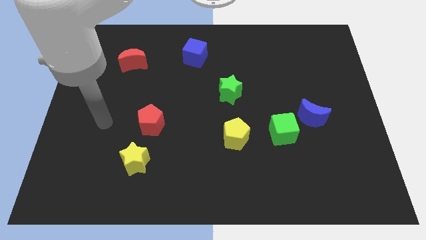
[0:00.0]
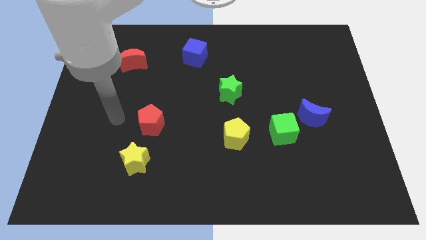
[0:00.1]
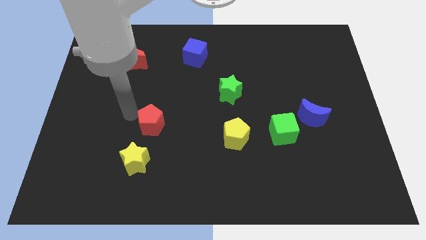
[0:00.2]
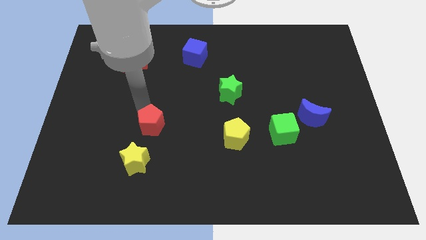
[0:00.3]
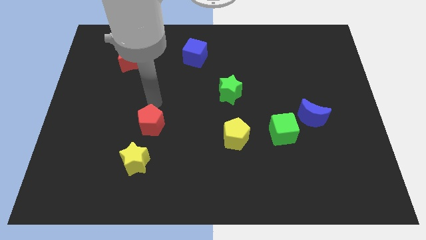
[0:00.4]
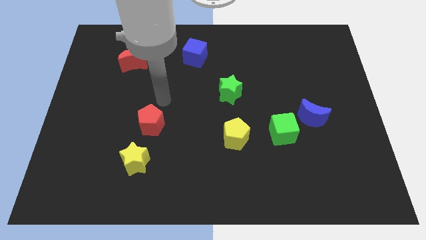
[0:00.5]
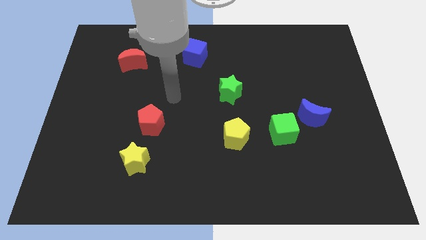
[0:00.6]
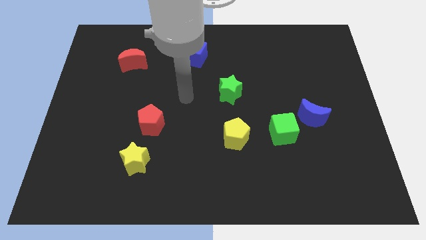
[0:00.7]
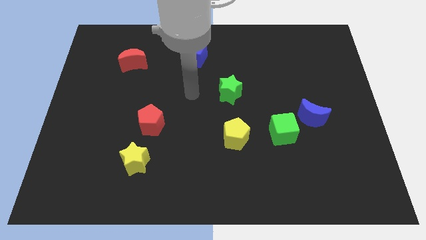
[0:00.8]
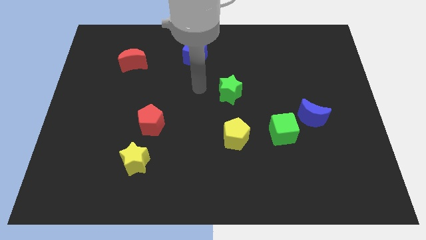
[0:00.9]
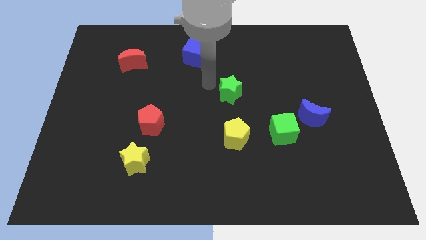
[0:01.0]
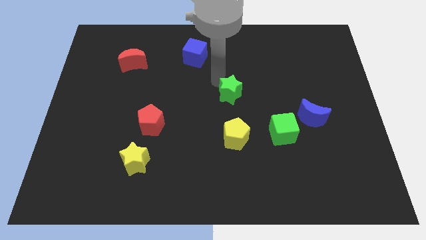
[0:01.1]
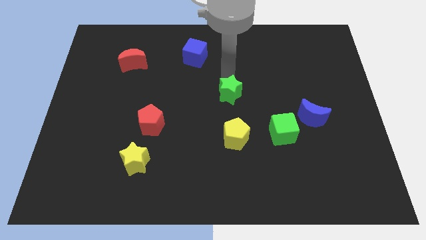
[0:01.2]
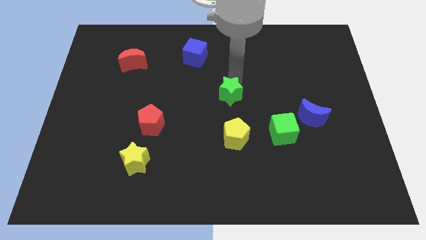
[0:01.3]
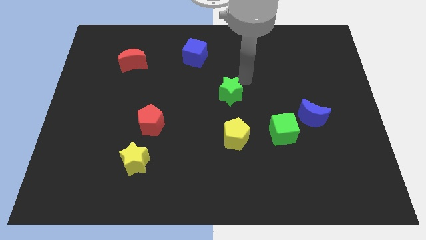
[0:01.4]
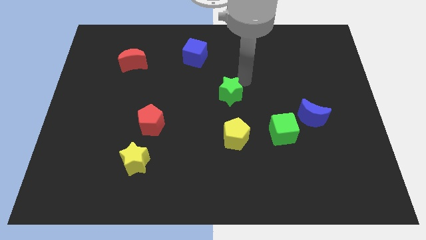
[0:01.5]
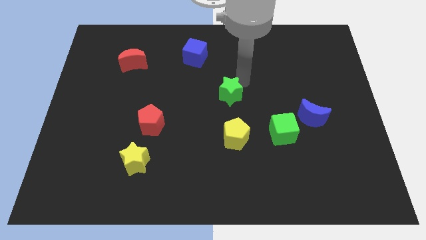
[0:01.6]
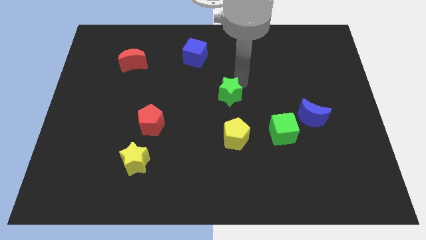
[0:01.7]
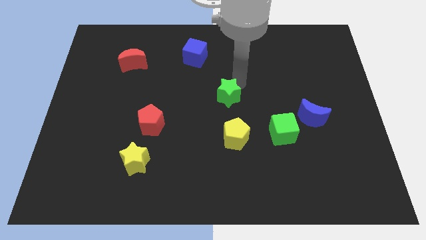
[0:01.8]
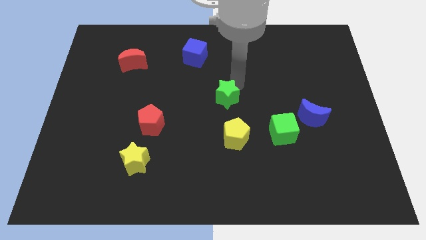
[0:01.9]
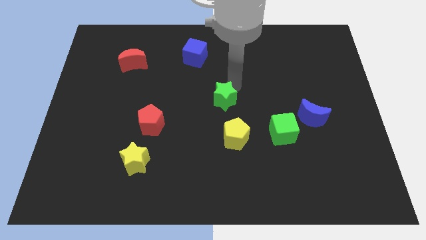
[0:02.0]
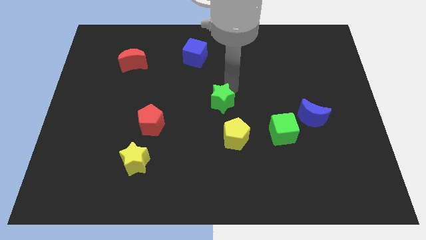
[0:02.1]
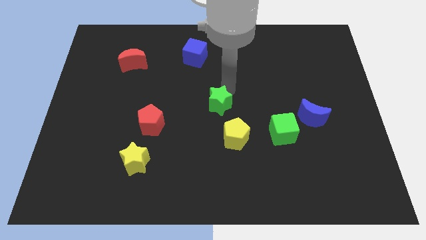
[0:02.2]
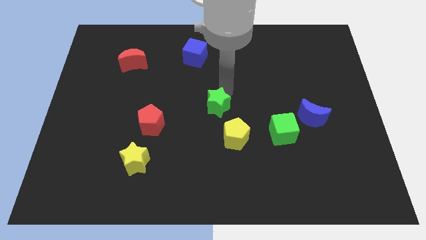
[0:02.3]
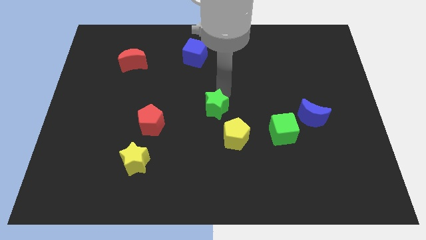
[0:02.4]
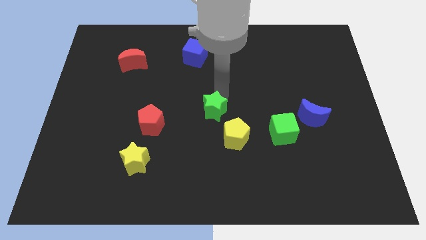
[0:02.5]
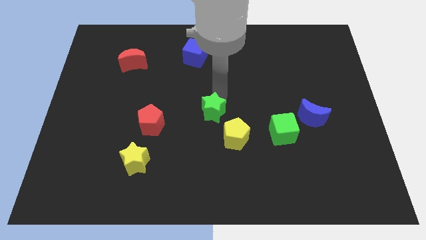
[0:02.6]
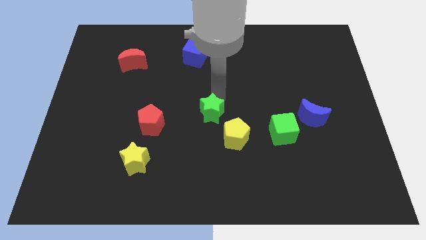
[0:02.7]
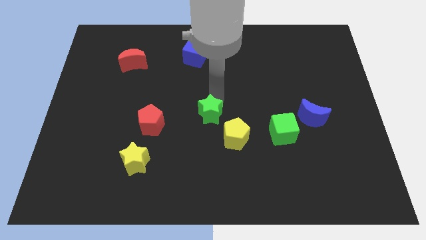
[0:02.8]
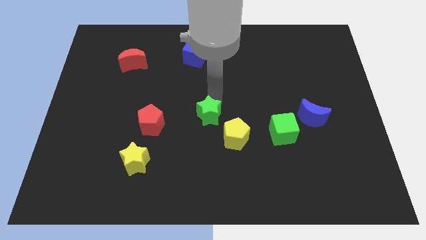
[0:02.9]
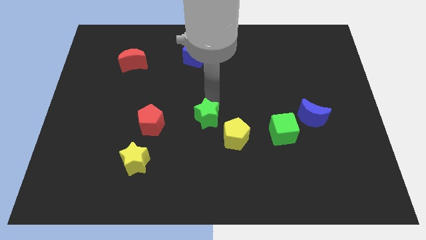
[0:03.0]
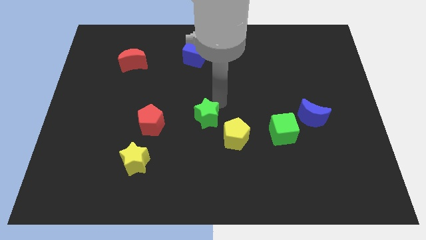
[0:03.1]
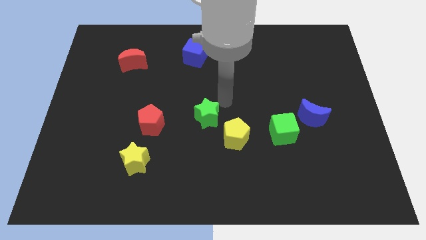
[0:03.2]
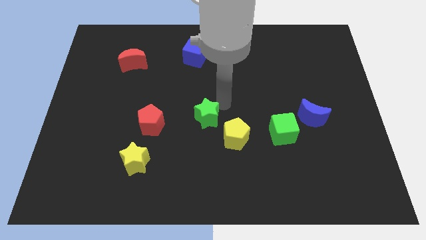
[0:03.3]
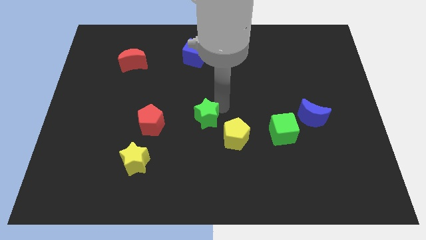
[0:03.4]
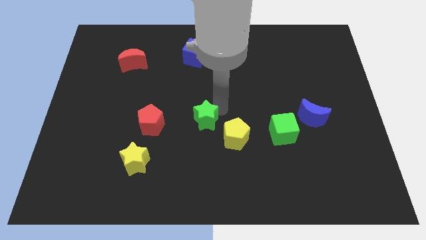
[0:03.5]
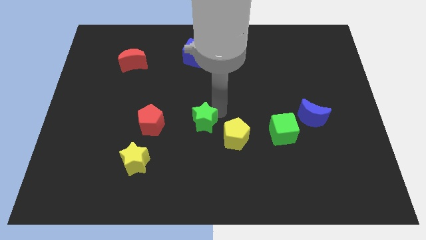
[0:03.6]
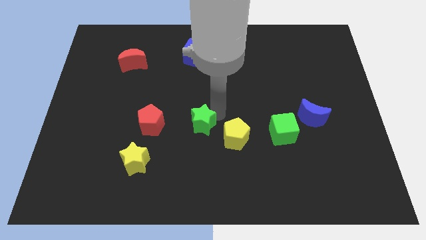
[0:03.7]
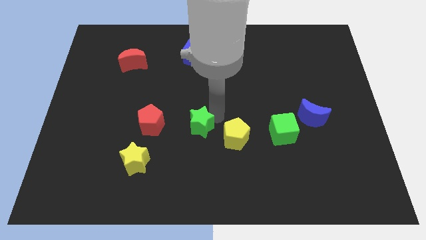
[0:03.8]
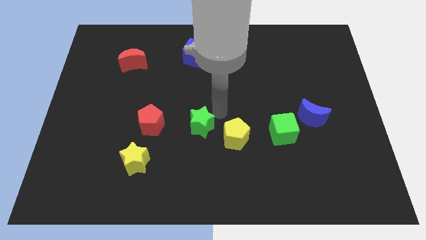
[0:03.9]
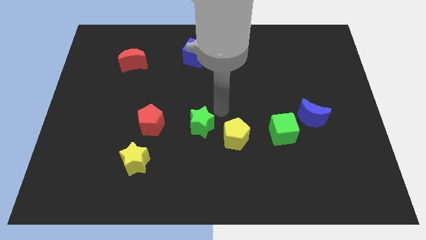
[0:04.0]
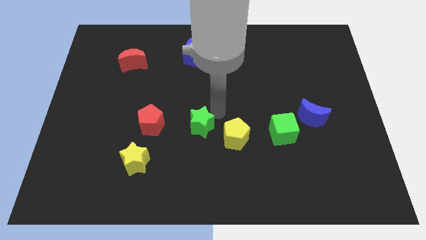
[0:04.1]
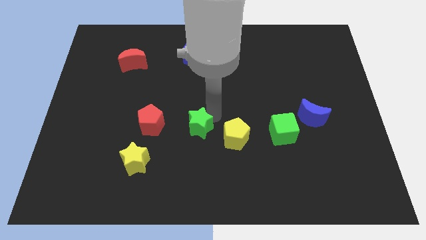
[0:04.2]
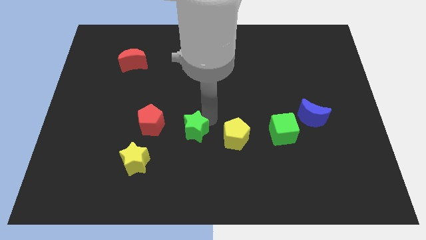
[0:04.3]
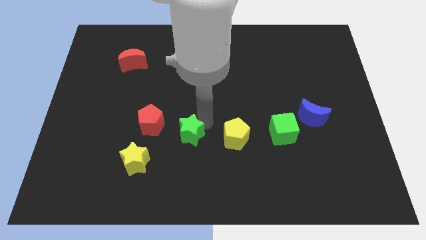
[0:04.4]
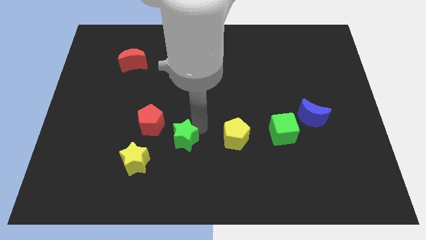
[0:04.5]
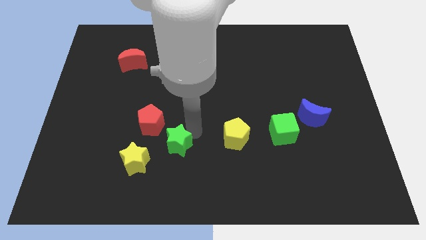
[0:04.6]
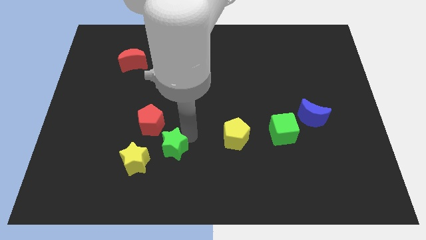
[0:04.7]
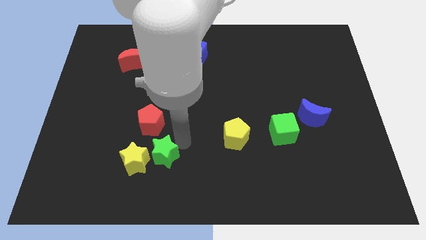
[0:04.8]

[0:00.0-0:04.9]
slide the green star next to the yellow star

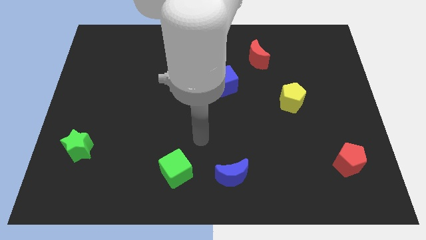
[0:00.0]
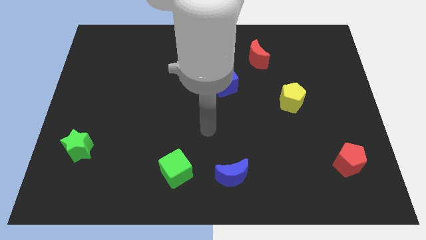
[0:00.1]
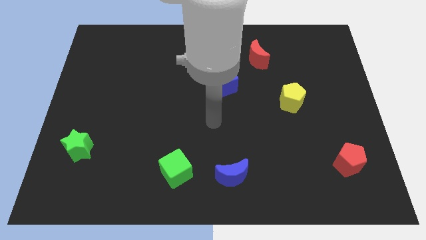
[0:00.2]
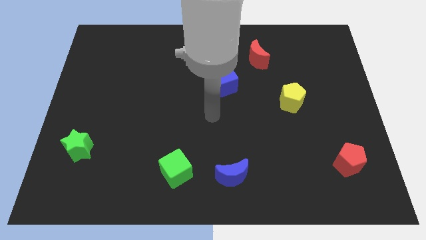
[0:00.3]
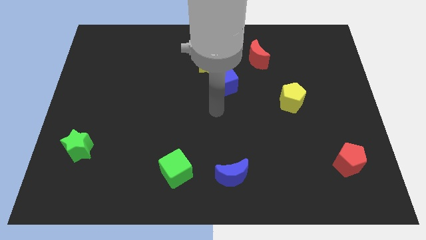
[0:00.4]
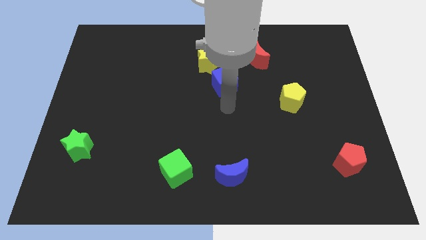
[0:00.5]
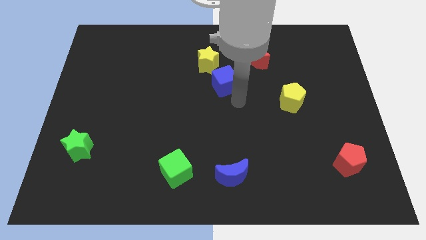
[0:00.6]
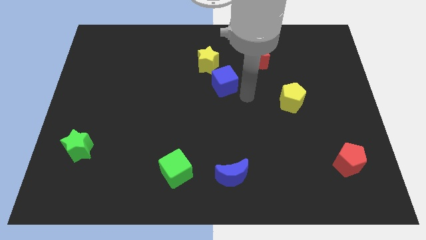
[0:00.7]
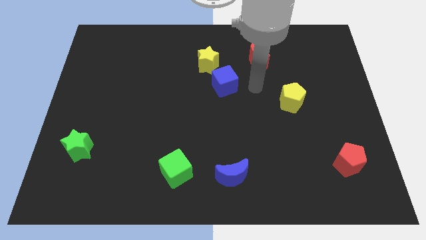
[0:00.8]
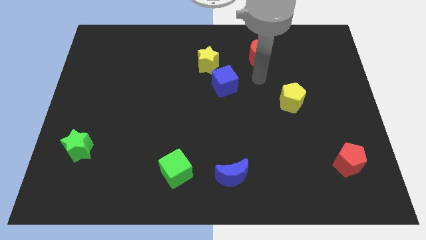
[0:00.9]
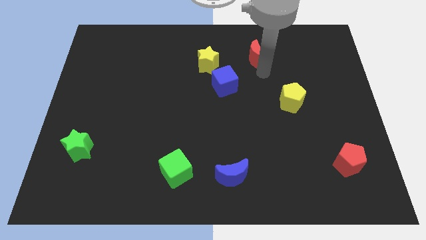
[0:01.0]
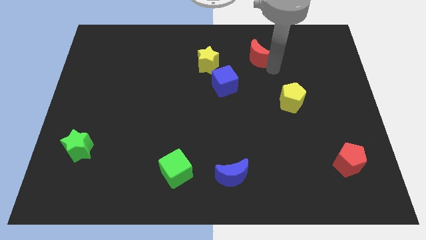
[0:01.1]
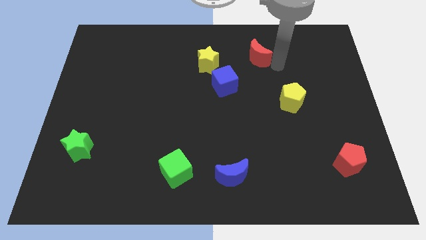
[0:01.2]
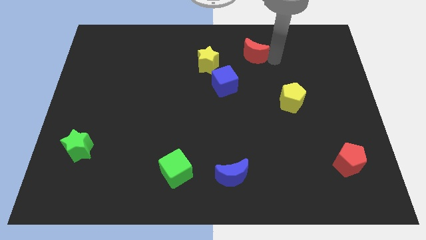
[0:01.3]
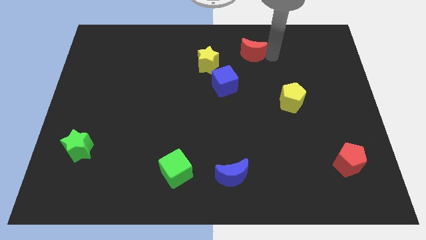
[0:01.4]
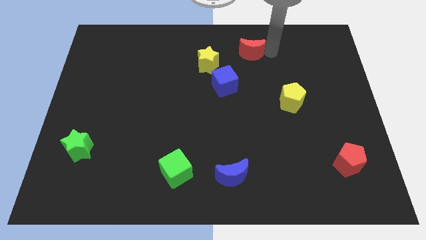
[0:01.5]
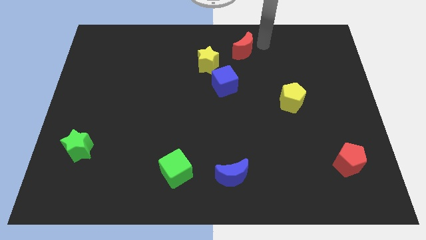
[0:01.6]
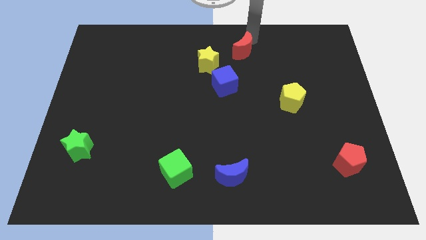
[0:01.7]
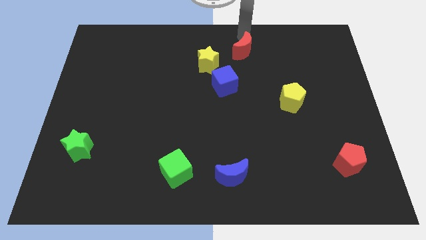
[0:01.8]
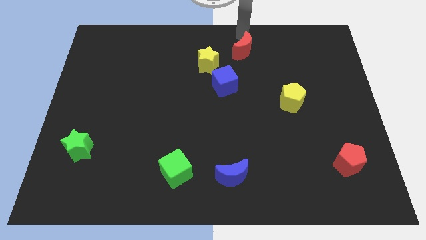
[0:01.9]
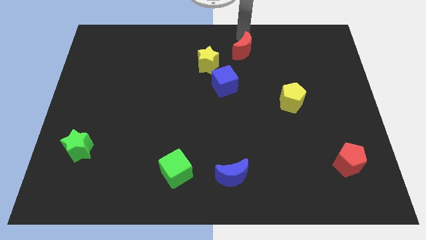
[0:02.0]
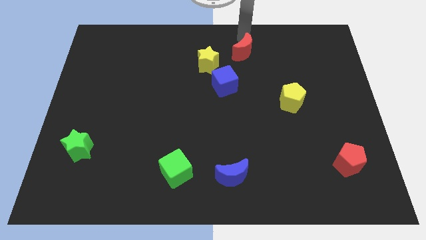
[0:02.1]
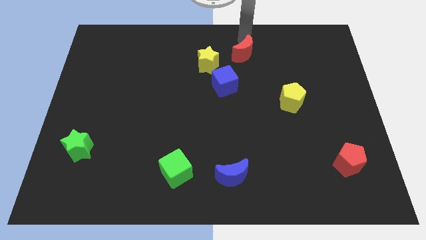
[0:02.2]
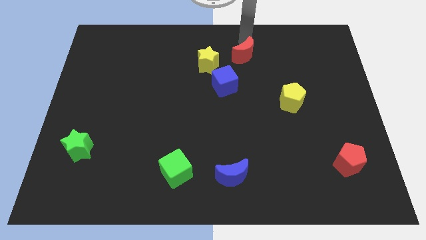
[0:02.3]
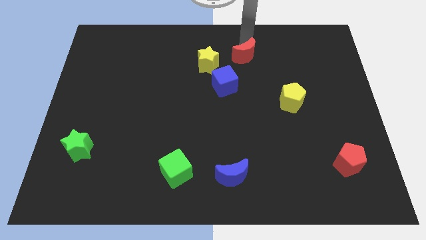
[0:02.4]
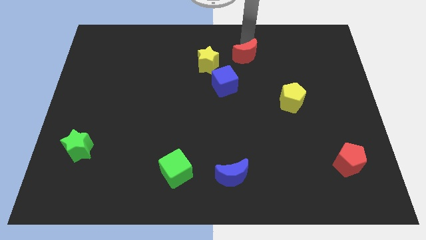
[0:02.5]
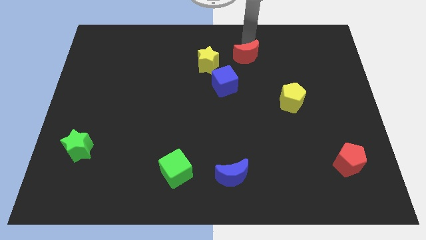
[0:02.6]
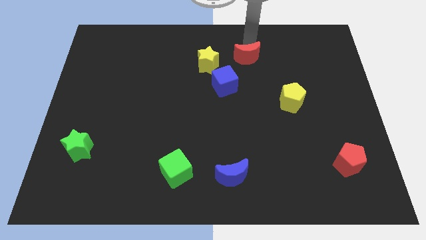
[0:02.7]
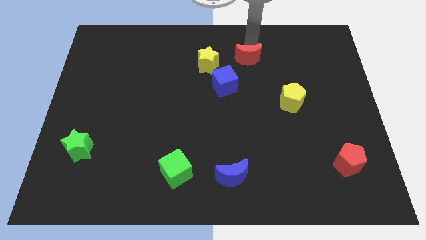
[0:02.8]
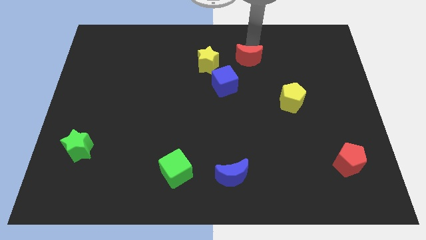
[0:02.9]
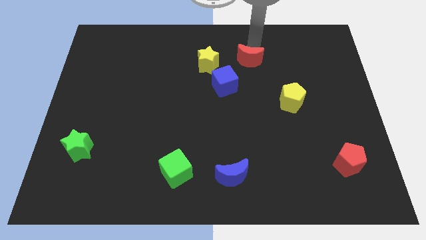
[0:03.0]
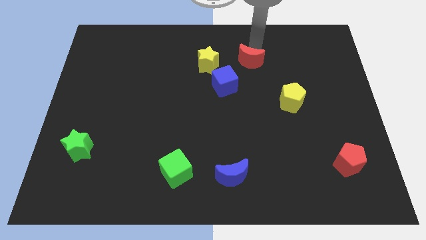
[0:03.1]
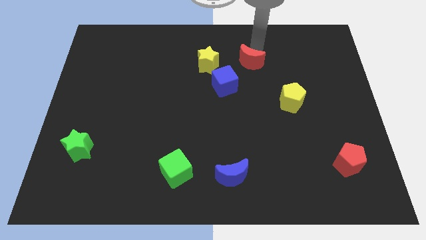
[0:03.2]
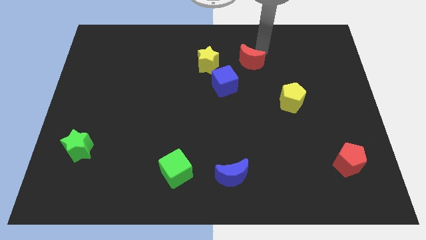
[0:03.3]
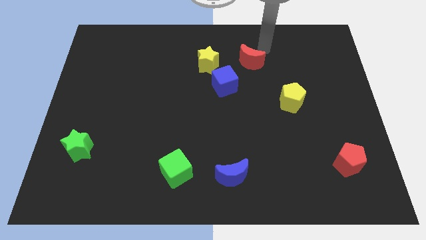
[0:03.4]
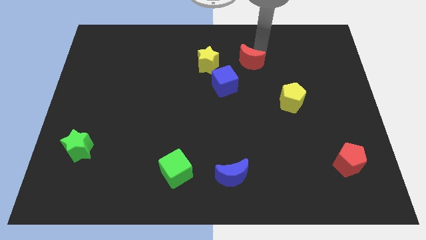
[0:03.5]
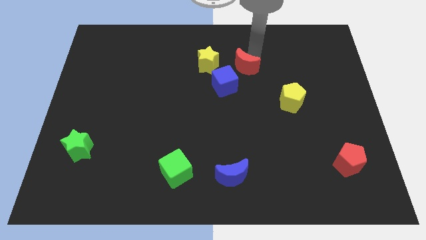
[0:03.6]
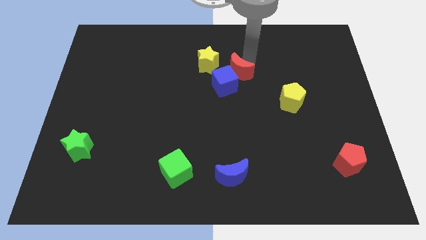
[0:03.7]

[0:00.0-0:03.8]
slide the red moon to the blue cube
